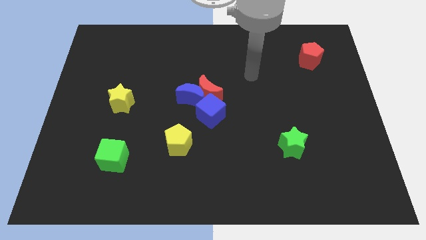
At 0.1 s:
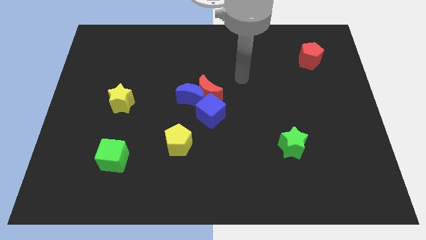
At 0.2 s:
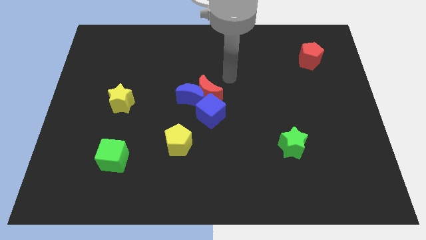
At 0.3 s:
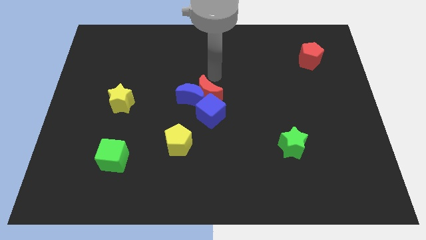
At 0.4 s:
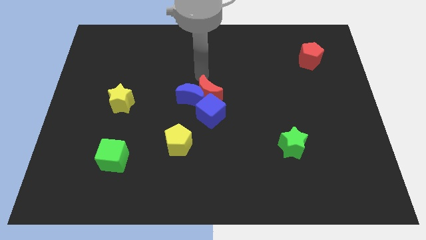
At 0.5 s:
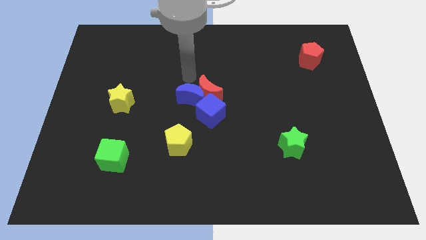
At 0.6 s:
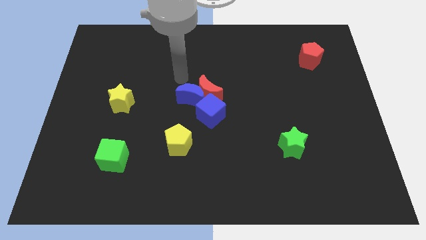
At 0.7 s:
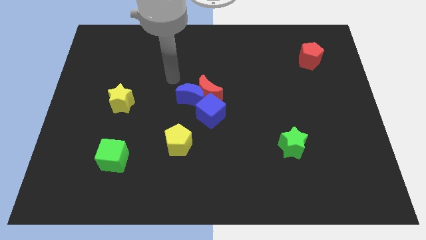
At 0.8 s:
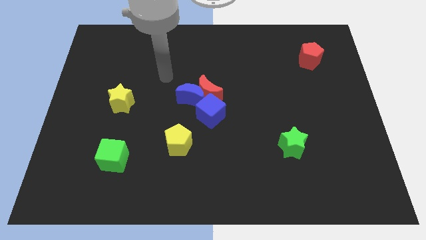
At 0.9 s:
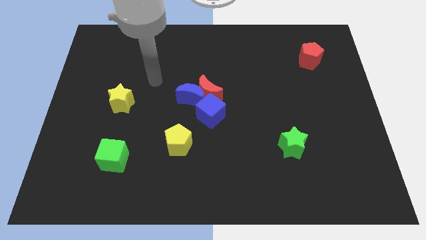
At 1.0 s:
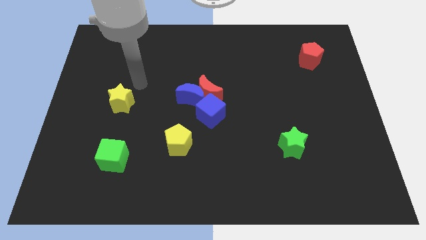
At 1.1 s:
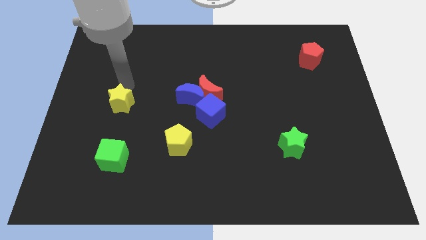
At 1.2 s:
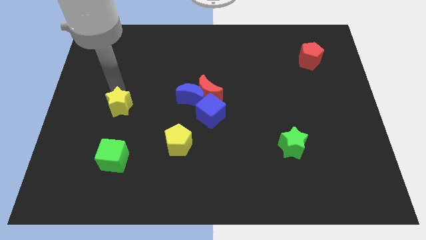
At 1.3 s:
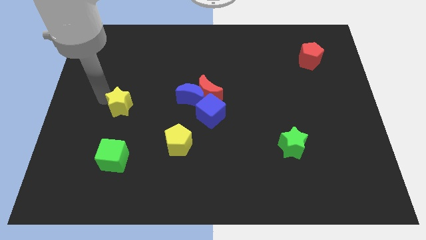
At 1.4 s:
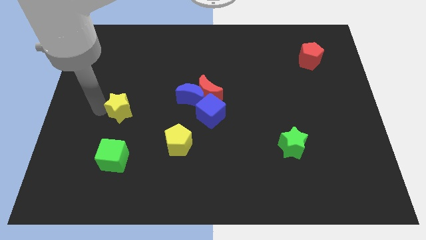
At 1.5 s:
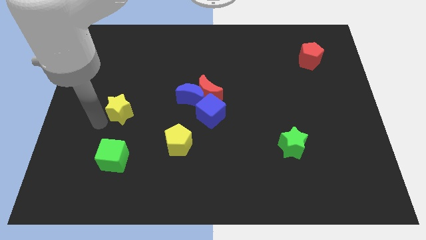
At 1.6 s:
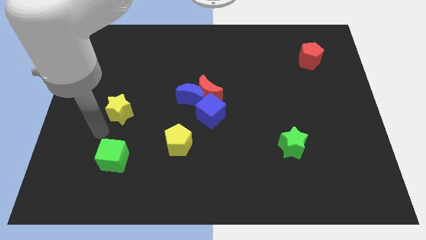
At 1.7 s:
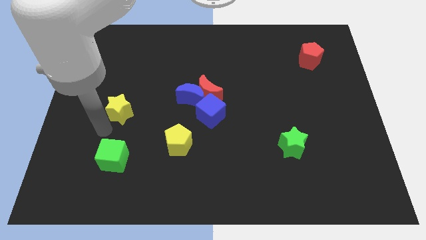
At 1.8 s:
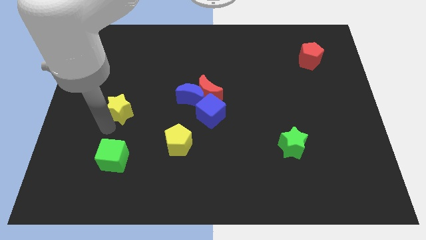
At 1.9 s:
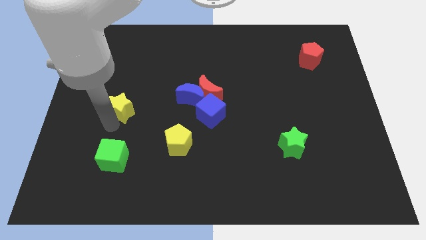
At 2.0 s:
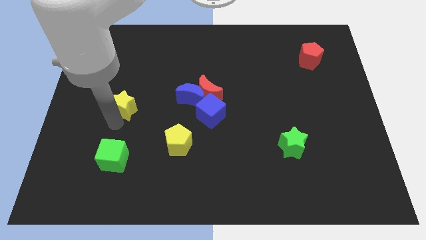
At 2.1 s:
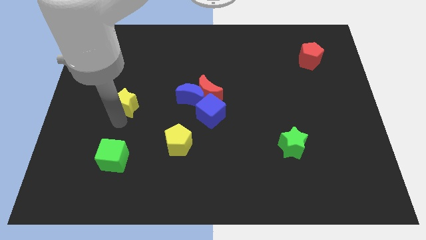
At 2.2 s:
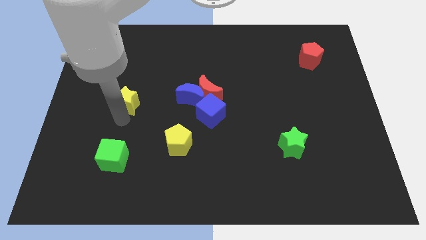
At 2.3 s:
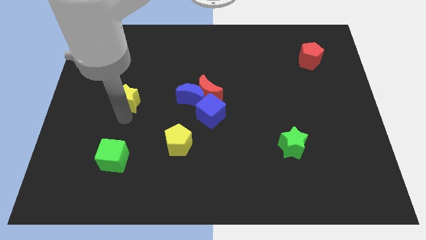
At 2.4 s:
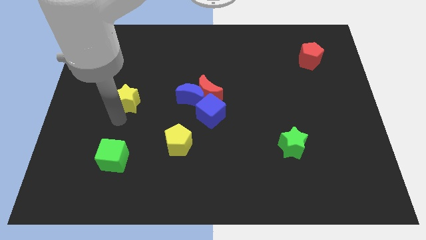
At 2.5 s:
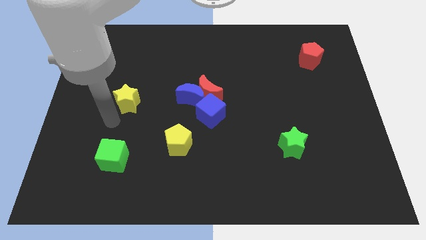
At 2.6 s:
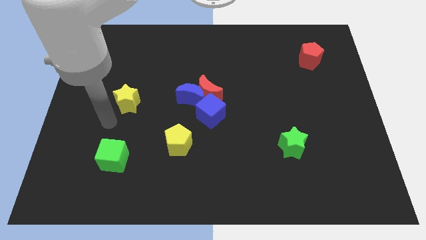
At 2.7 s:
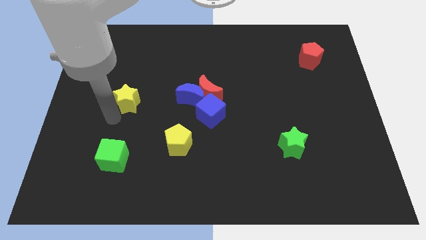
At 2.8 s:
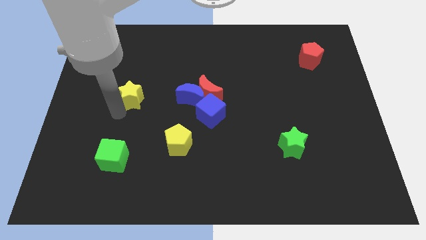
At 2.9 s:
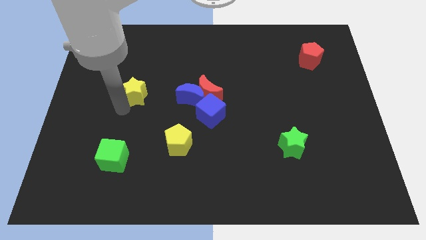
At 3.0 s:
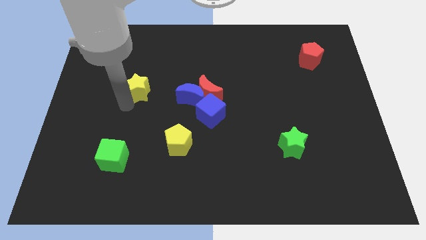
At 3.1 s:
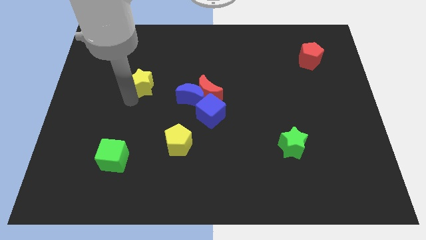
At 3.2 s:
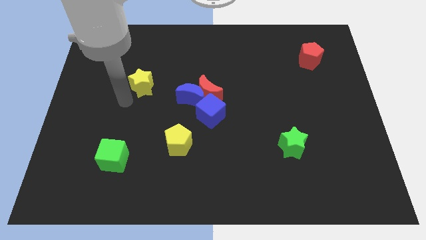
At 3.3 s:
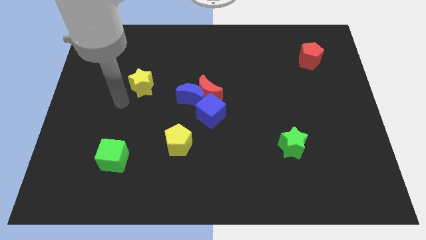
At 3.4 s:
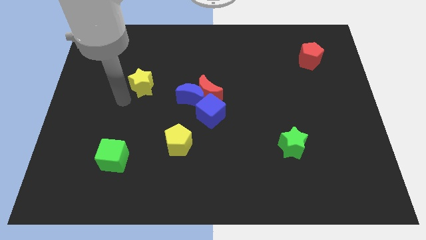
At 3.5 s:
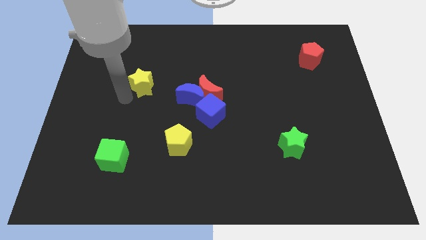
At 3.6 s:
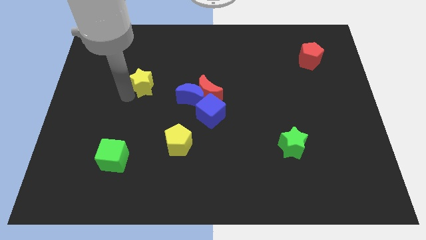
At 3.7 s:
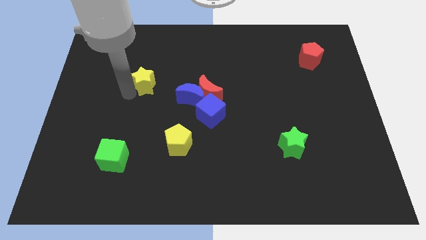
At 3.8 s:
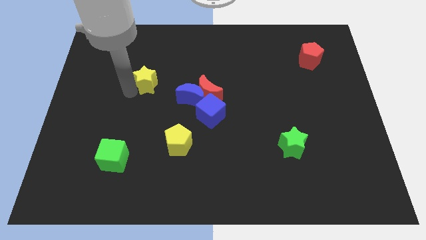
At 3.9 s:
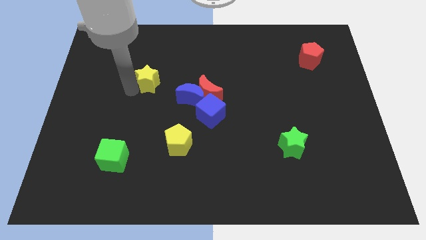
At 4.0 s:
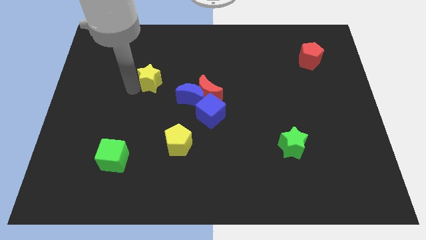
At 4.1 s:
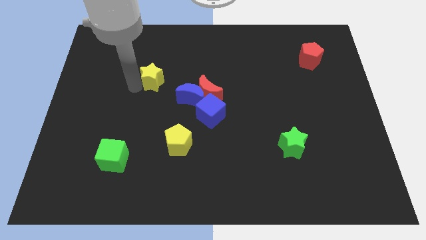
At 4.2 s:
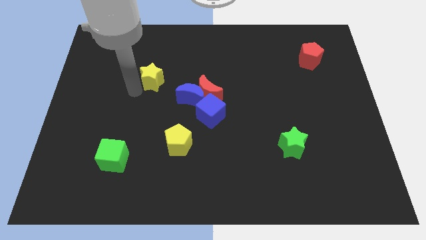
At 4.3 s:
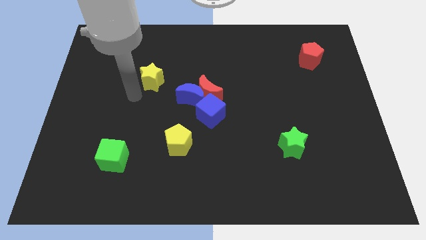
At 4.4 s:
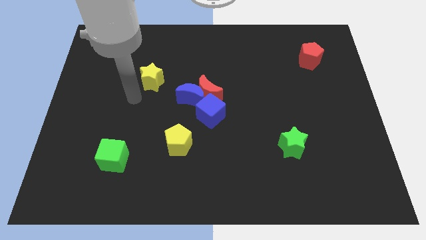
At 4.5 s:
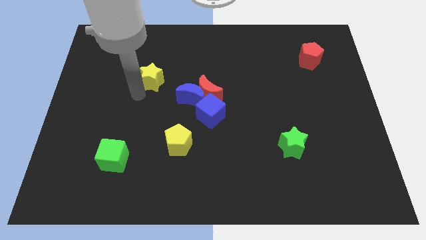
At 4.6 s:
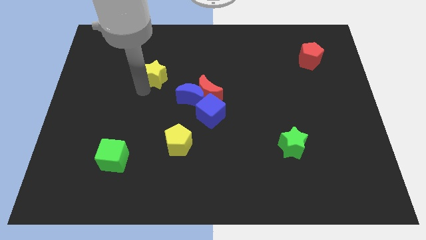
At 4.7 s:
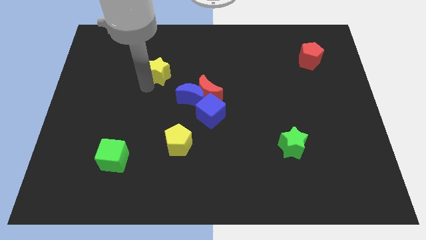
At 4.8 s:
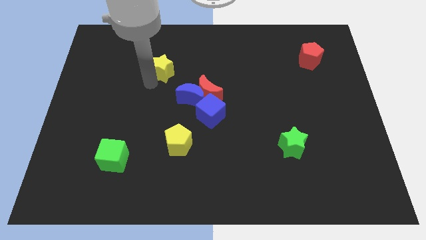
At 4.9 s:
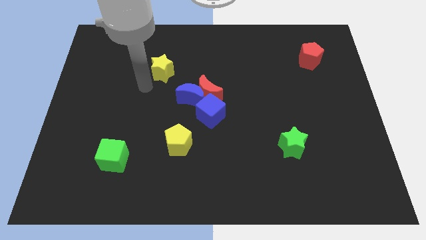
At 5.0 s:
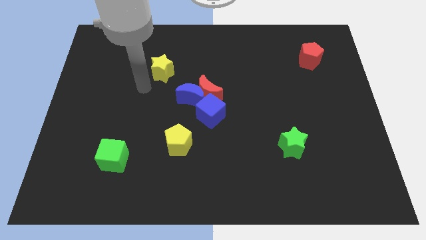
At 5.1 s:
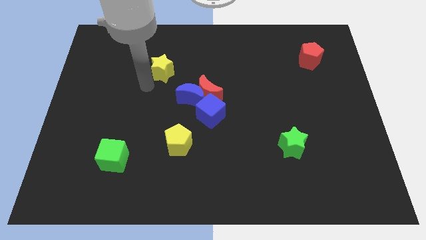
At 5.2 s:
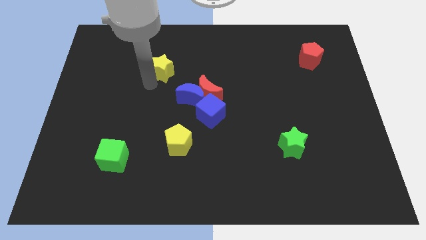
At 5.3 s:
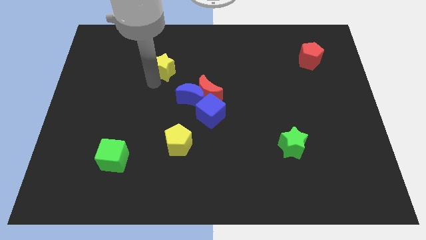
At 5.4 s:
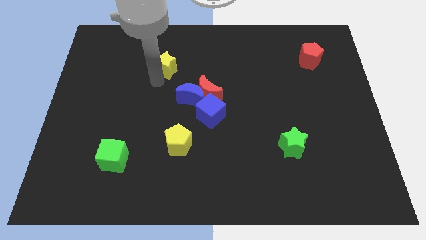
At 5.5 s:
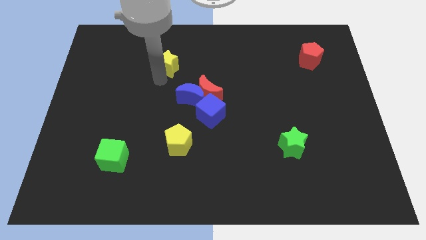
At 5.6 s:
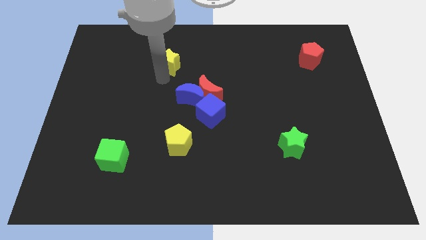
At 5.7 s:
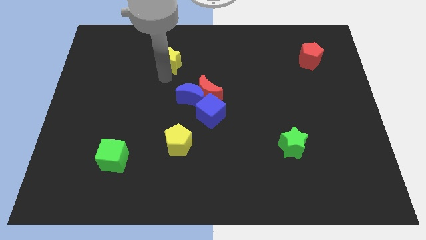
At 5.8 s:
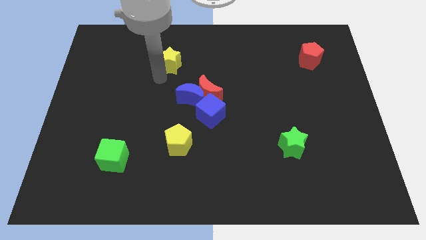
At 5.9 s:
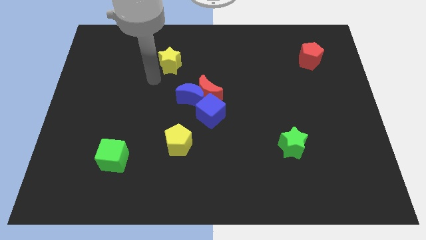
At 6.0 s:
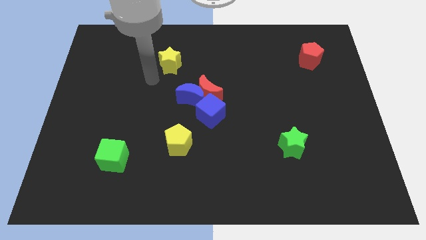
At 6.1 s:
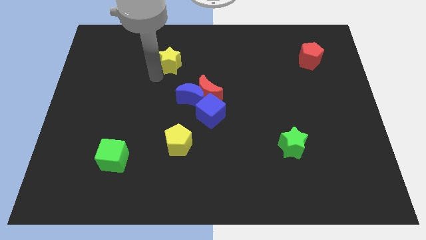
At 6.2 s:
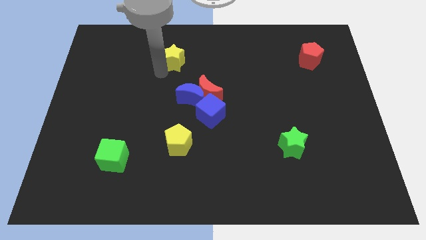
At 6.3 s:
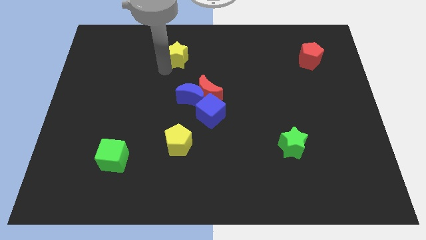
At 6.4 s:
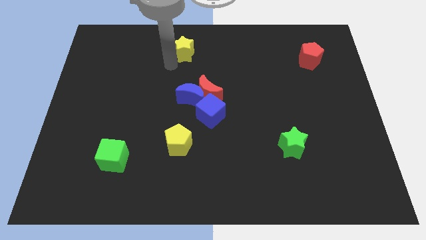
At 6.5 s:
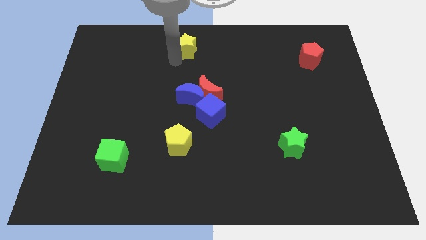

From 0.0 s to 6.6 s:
push the yellow star to the towards your base
